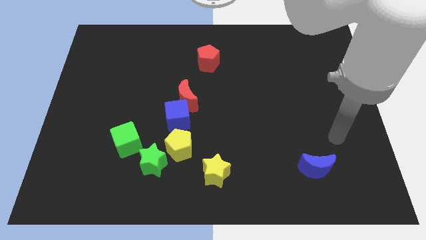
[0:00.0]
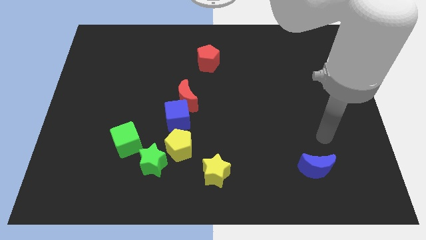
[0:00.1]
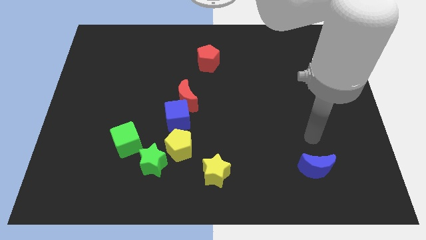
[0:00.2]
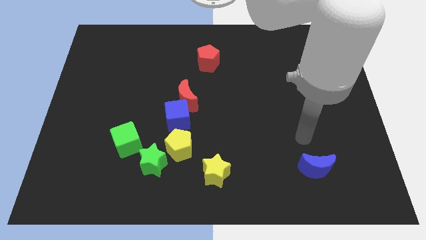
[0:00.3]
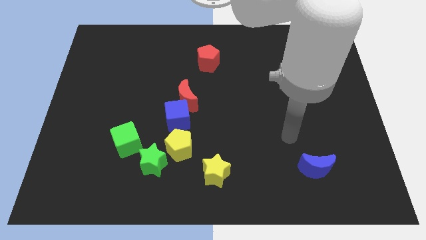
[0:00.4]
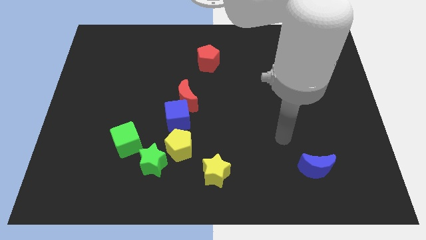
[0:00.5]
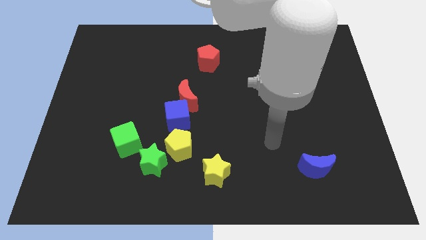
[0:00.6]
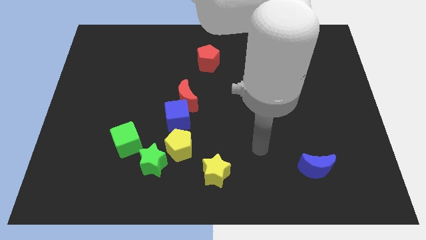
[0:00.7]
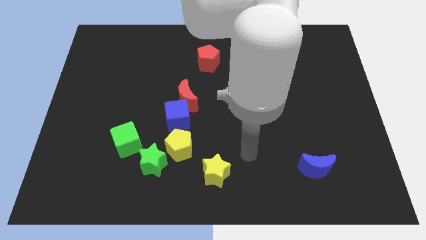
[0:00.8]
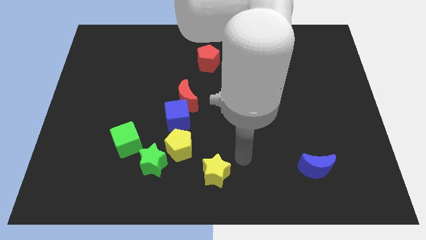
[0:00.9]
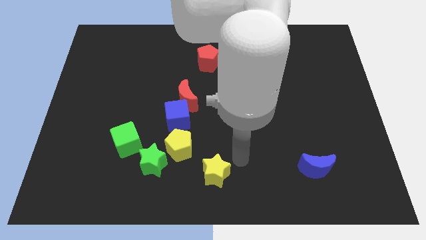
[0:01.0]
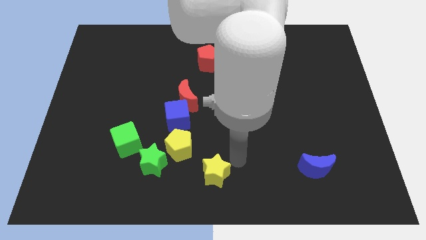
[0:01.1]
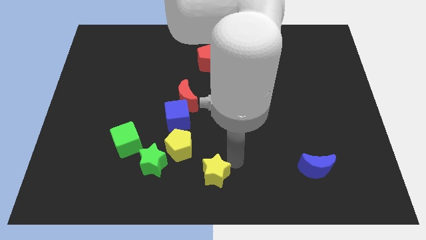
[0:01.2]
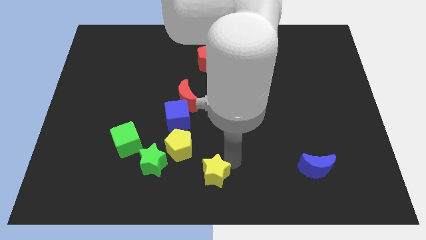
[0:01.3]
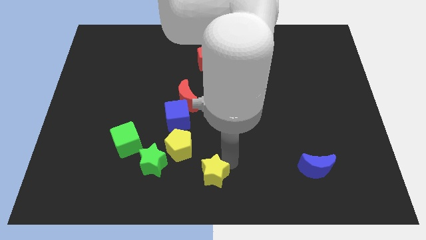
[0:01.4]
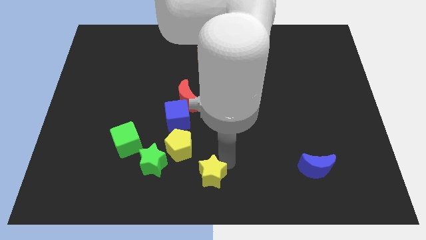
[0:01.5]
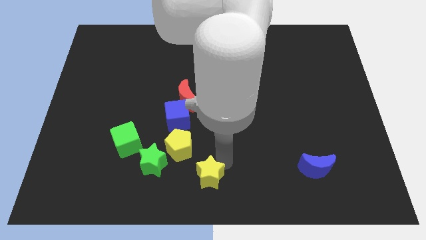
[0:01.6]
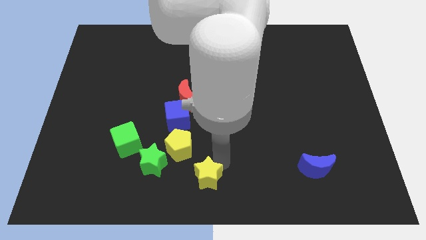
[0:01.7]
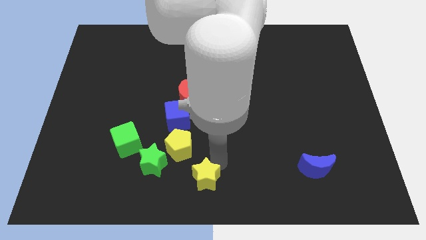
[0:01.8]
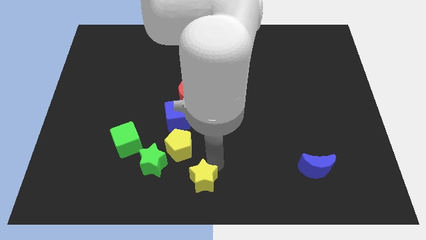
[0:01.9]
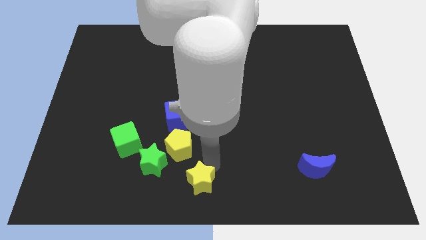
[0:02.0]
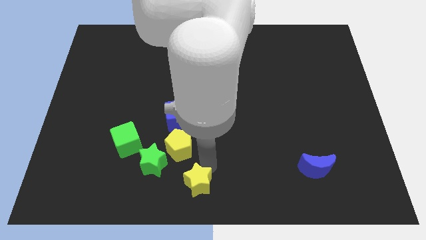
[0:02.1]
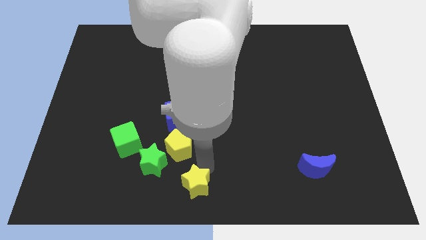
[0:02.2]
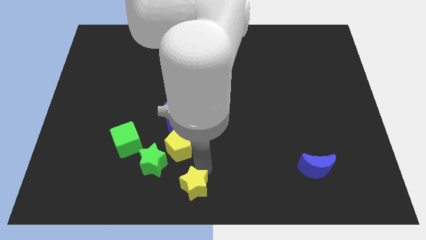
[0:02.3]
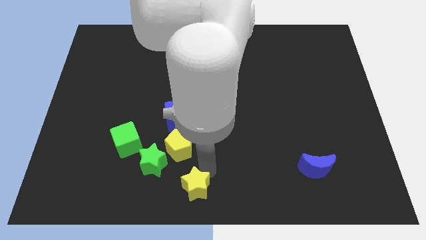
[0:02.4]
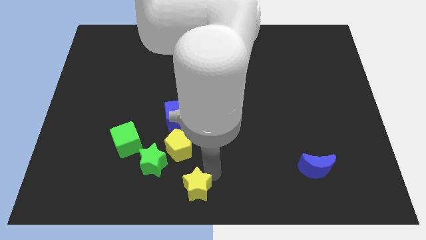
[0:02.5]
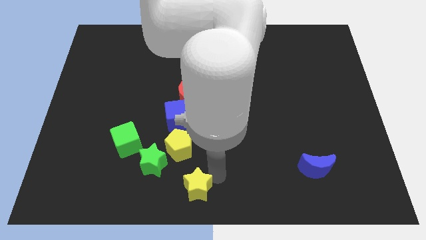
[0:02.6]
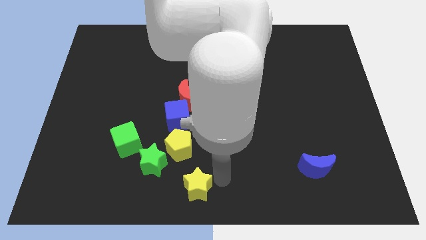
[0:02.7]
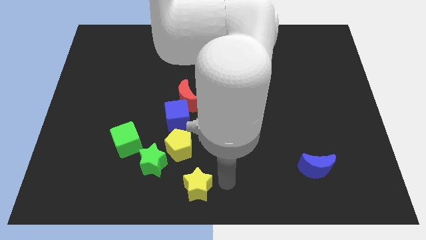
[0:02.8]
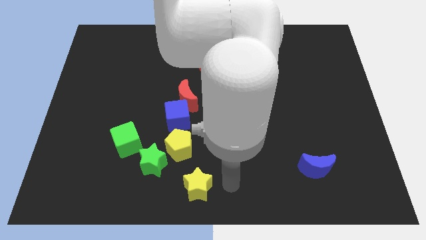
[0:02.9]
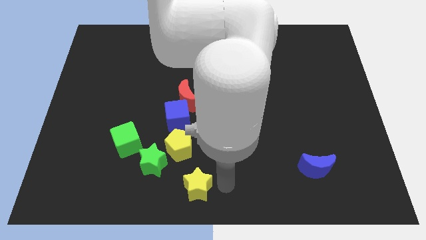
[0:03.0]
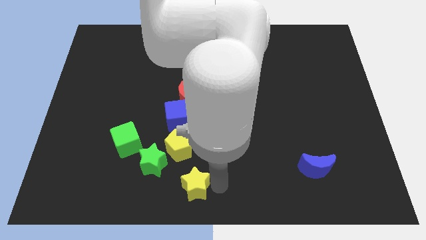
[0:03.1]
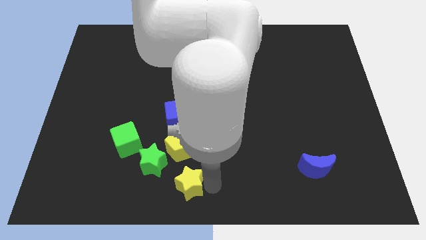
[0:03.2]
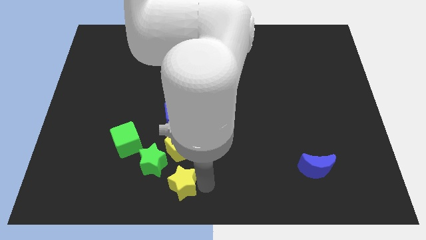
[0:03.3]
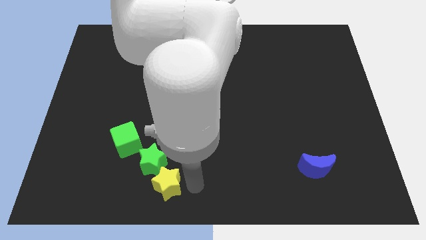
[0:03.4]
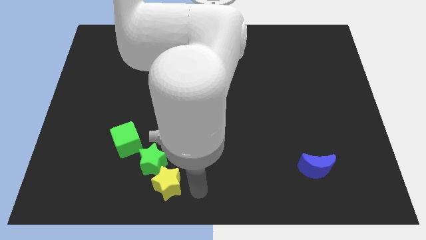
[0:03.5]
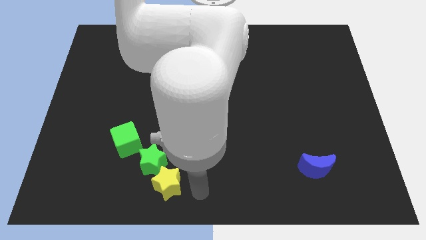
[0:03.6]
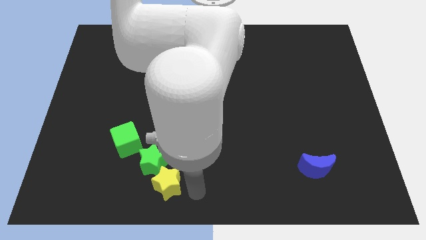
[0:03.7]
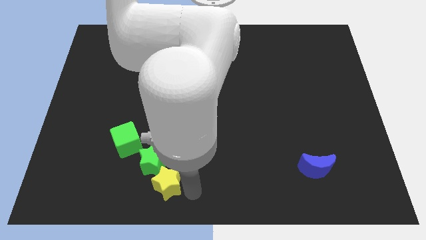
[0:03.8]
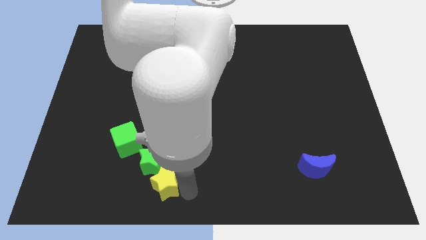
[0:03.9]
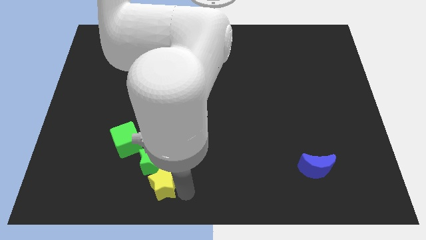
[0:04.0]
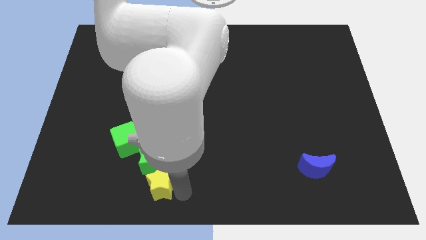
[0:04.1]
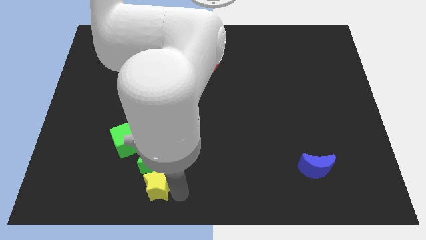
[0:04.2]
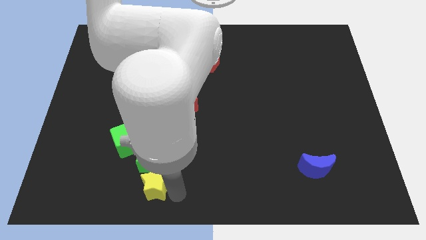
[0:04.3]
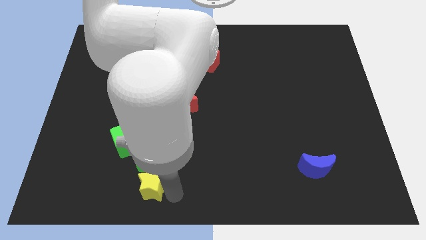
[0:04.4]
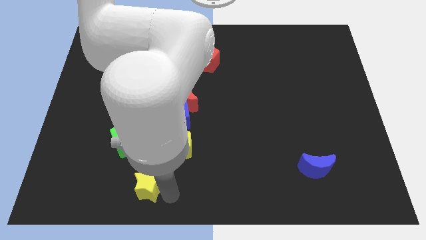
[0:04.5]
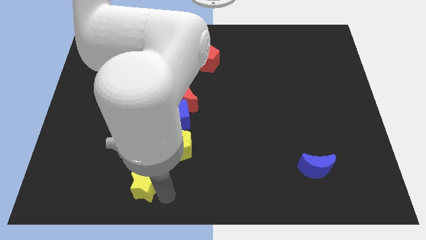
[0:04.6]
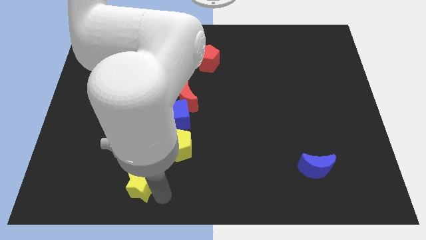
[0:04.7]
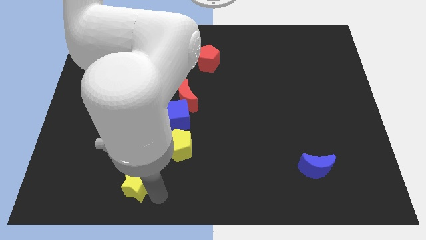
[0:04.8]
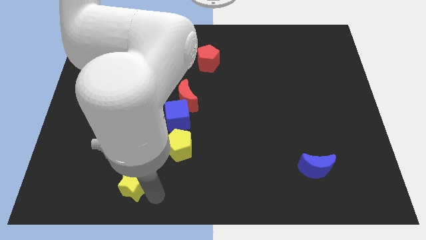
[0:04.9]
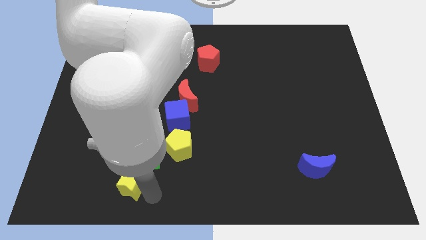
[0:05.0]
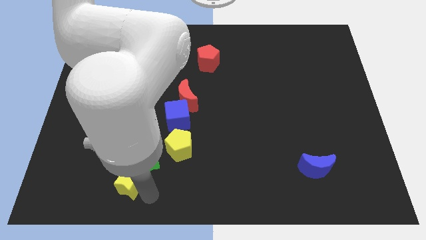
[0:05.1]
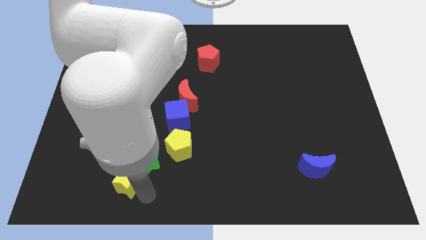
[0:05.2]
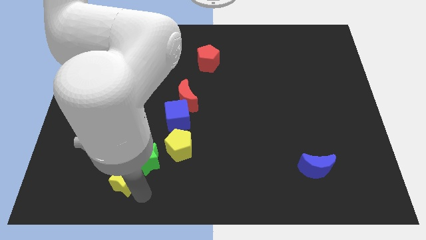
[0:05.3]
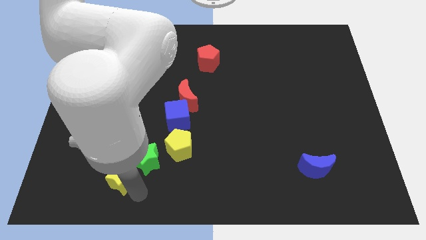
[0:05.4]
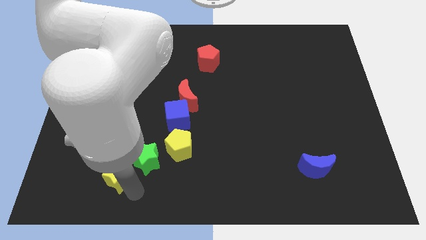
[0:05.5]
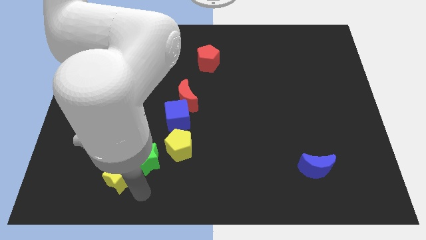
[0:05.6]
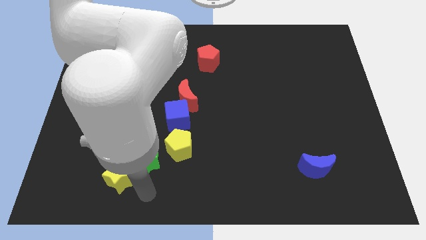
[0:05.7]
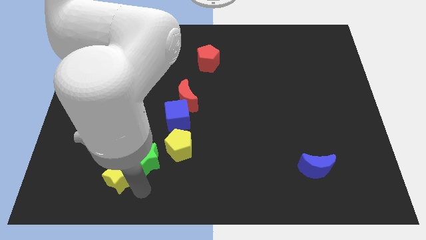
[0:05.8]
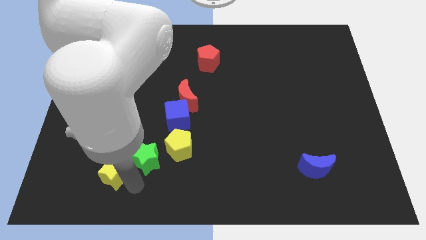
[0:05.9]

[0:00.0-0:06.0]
move the yellow star diagonally down and to the left of the green cube

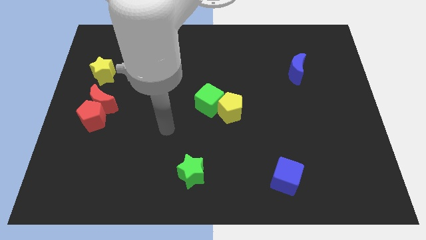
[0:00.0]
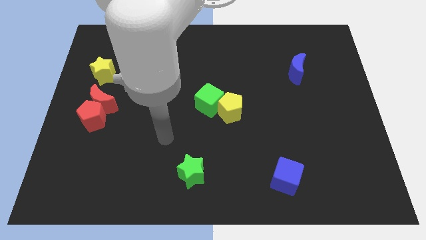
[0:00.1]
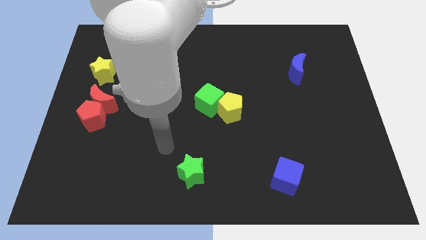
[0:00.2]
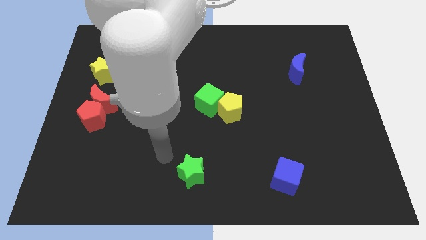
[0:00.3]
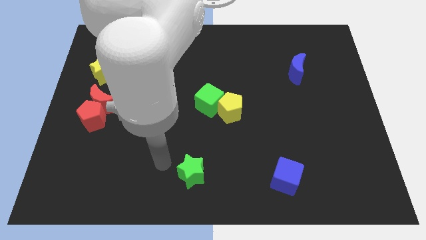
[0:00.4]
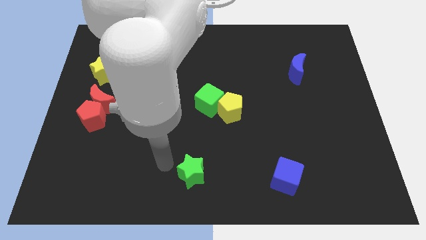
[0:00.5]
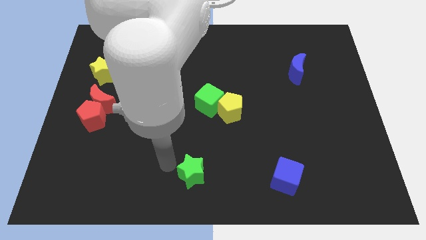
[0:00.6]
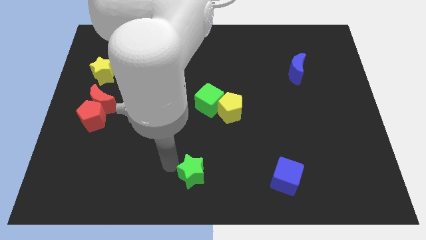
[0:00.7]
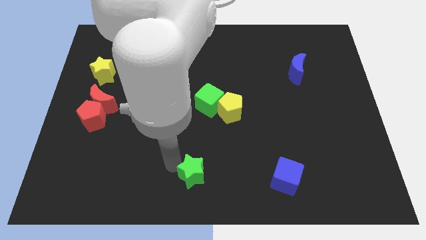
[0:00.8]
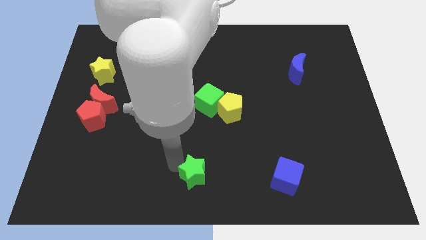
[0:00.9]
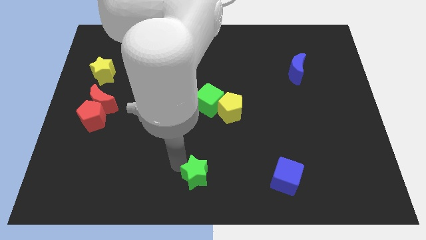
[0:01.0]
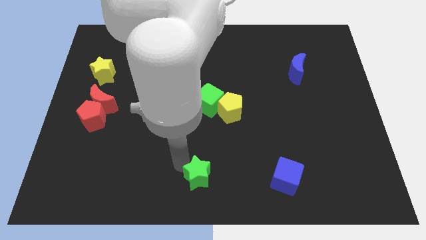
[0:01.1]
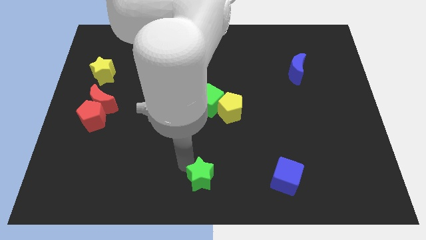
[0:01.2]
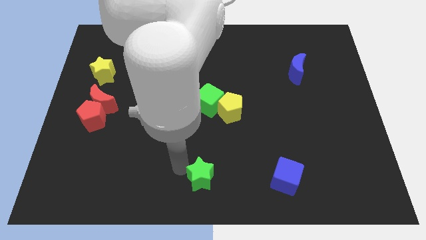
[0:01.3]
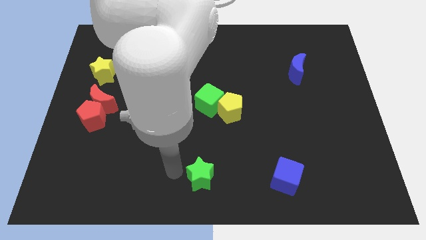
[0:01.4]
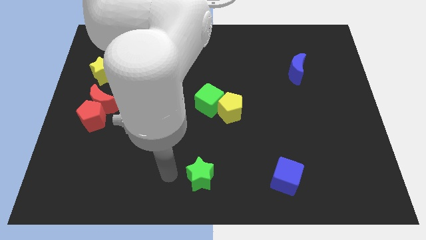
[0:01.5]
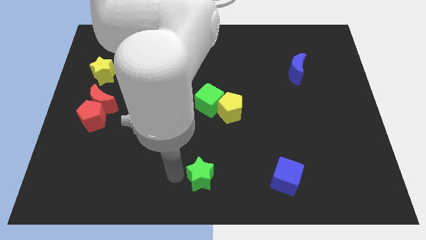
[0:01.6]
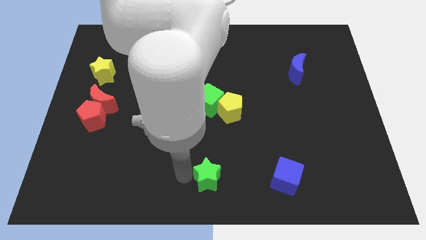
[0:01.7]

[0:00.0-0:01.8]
push the green star just left of the blue cube
